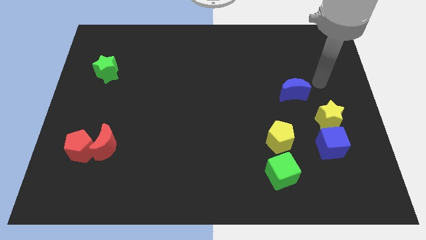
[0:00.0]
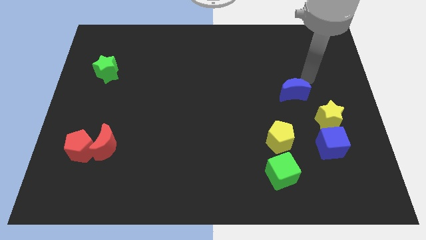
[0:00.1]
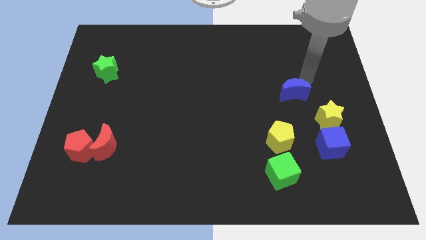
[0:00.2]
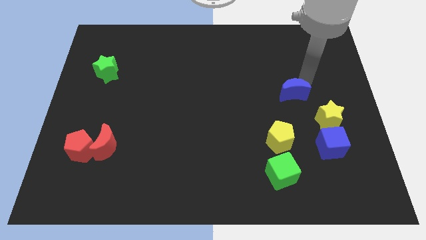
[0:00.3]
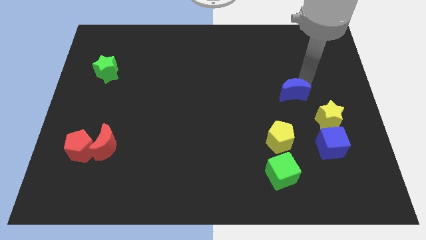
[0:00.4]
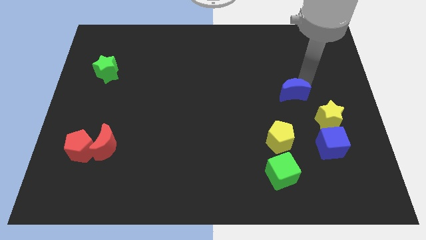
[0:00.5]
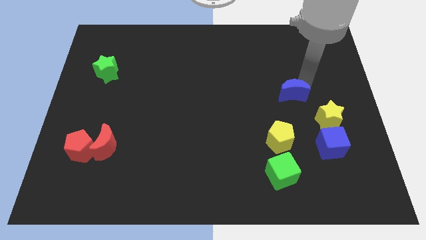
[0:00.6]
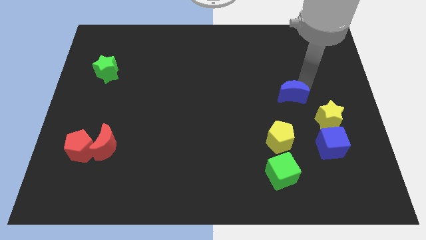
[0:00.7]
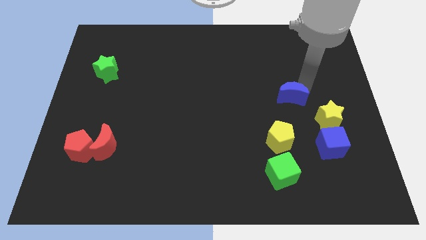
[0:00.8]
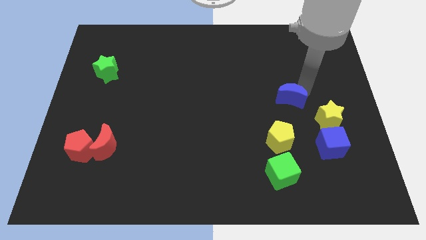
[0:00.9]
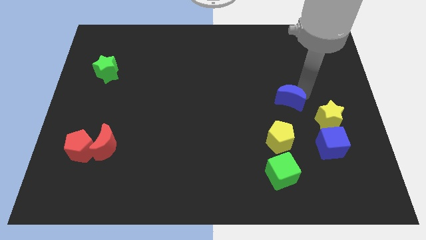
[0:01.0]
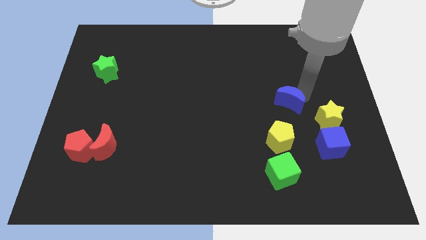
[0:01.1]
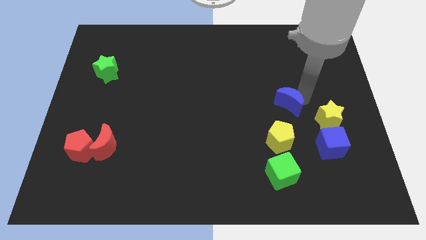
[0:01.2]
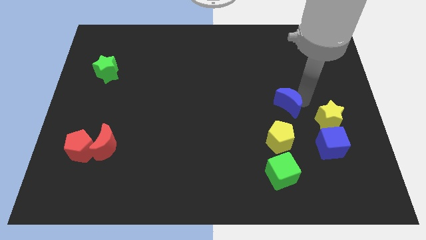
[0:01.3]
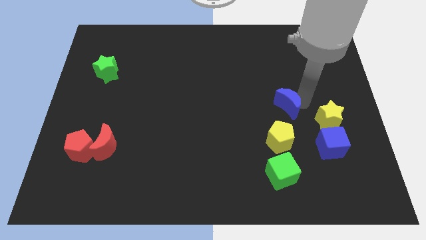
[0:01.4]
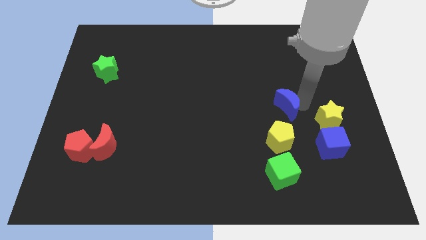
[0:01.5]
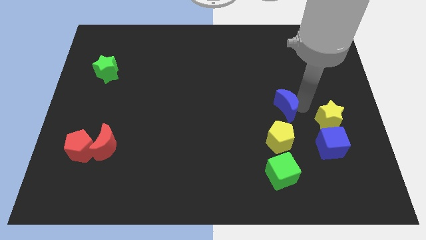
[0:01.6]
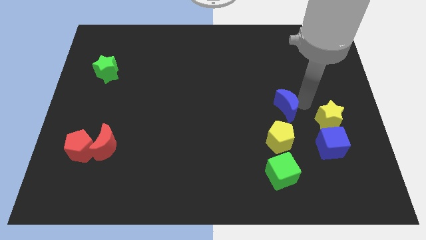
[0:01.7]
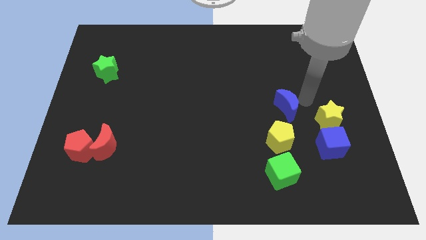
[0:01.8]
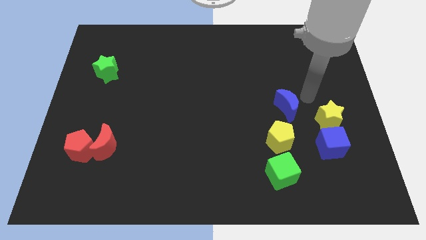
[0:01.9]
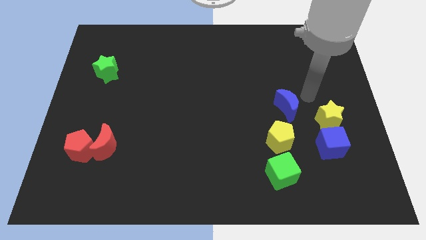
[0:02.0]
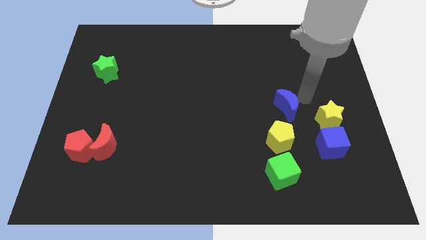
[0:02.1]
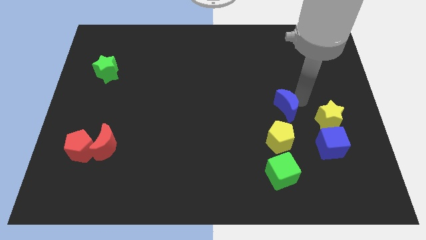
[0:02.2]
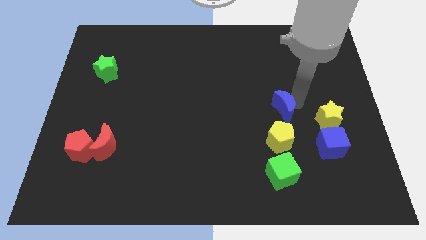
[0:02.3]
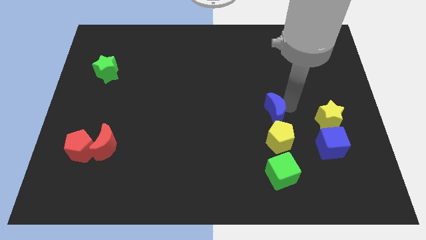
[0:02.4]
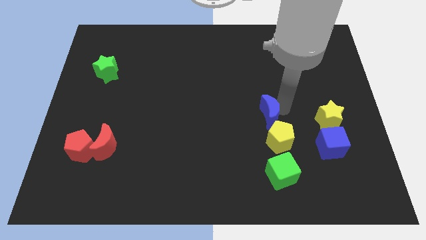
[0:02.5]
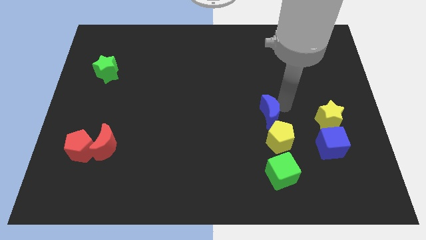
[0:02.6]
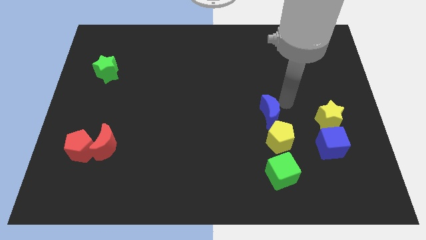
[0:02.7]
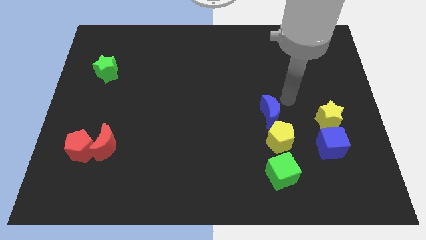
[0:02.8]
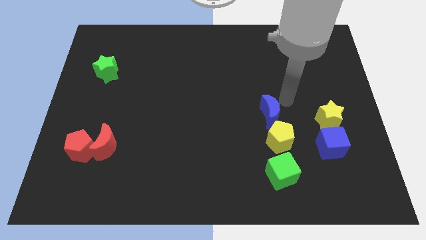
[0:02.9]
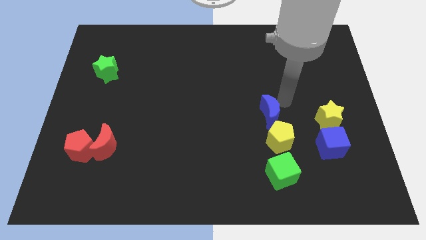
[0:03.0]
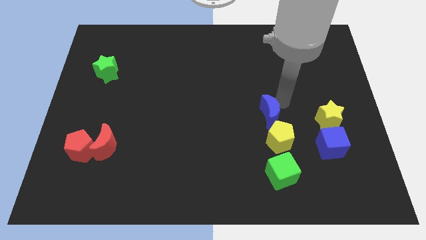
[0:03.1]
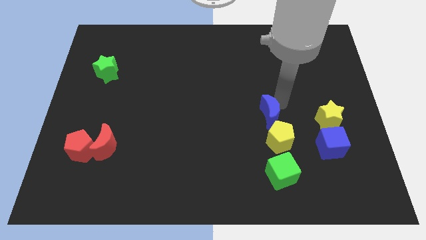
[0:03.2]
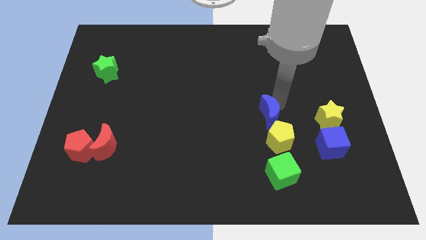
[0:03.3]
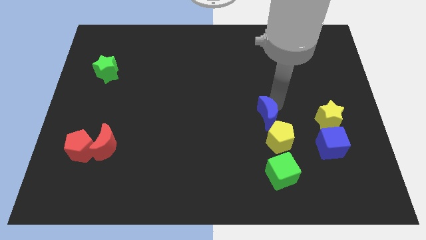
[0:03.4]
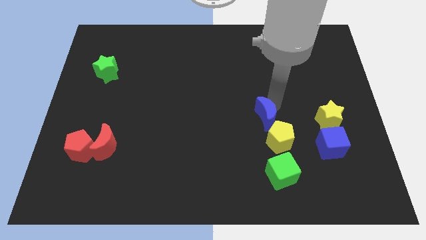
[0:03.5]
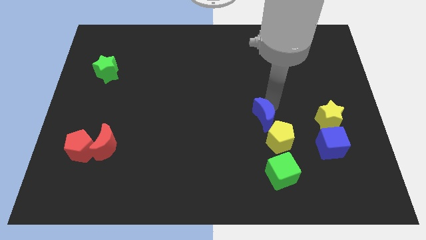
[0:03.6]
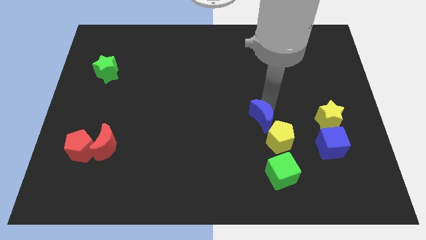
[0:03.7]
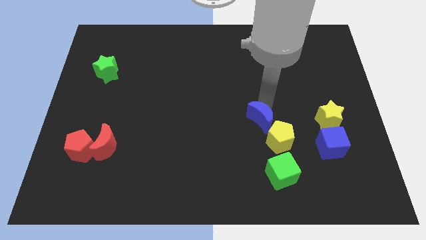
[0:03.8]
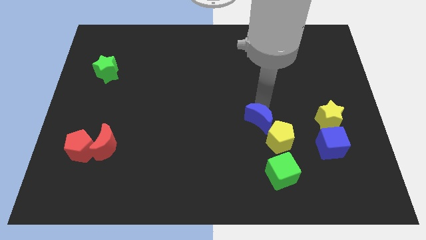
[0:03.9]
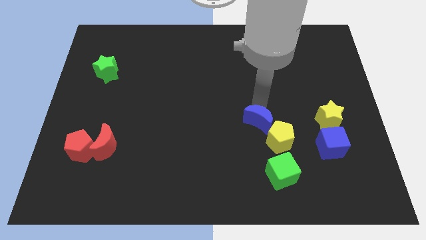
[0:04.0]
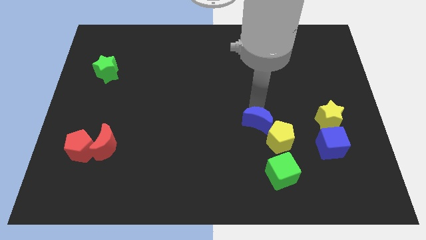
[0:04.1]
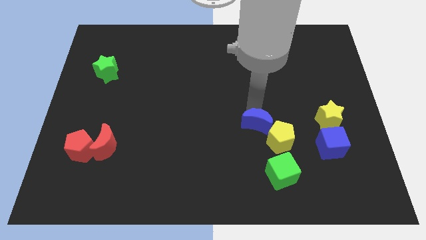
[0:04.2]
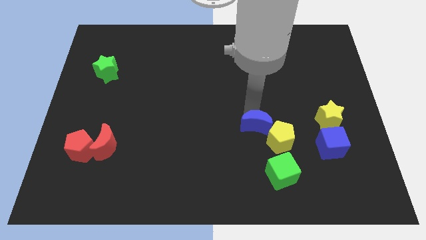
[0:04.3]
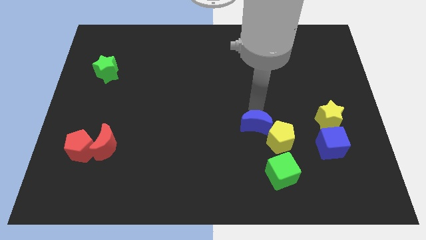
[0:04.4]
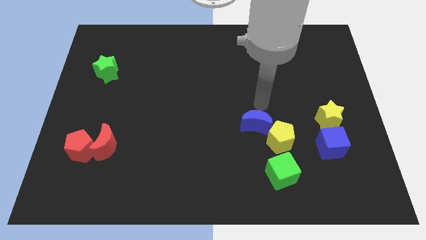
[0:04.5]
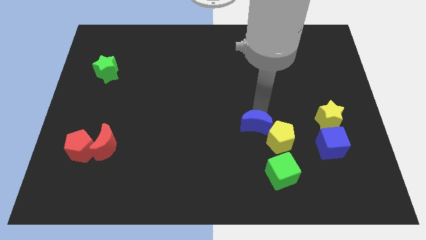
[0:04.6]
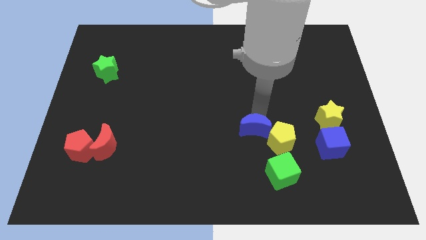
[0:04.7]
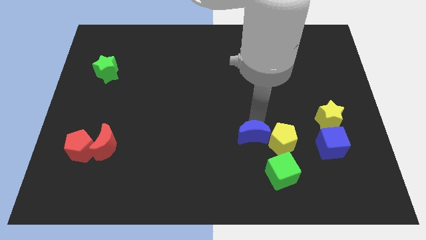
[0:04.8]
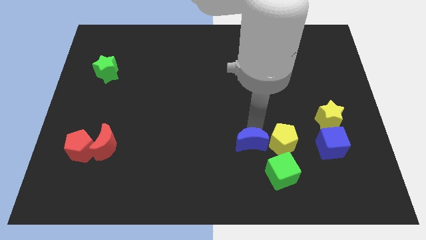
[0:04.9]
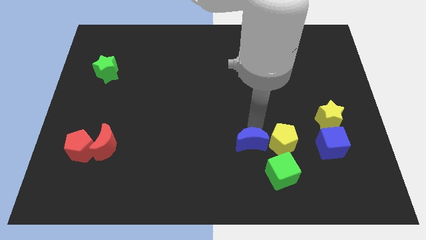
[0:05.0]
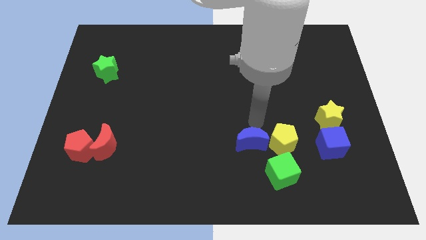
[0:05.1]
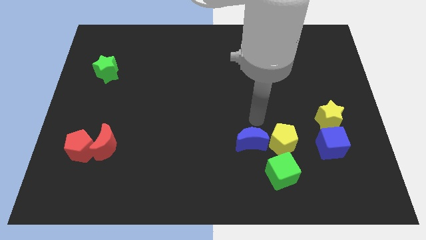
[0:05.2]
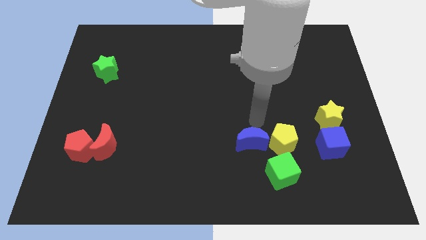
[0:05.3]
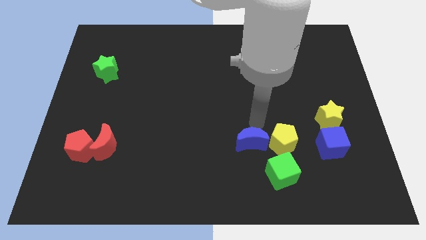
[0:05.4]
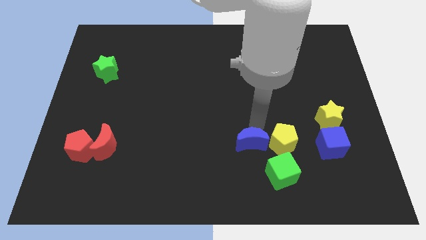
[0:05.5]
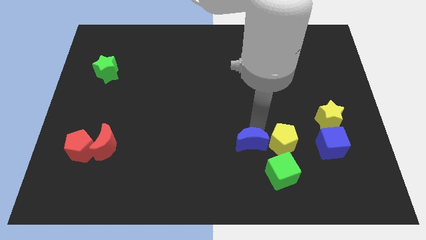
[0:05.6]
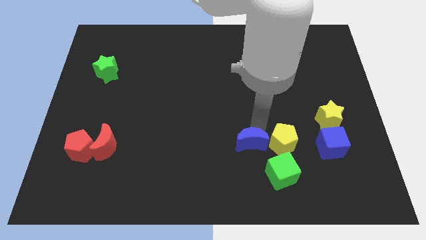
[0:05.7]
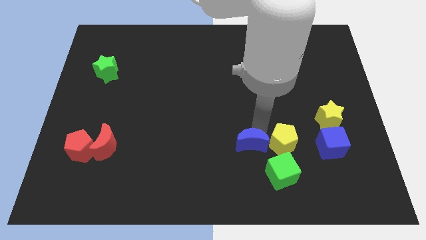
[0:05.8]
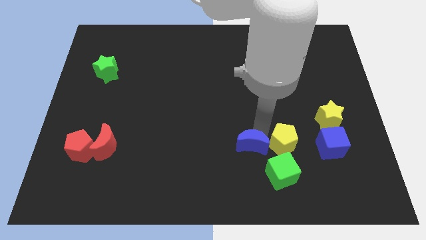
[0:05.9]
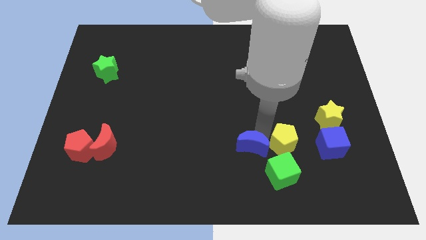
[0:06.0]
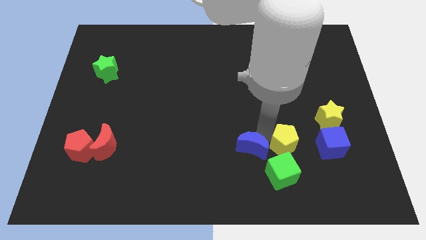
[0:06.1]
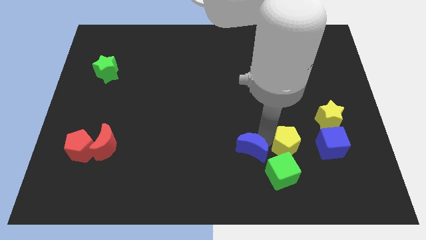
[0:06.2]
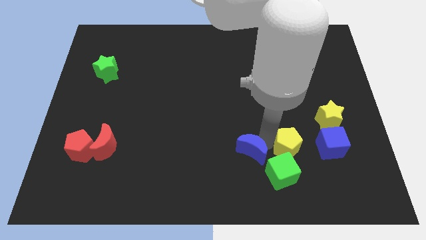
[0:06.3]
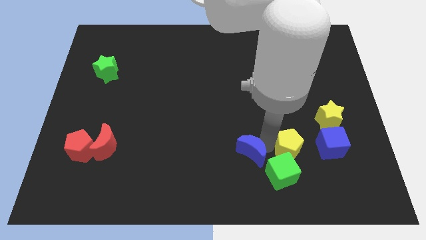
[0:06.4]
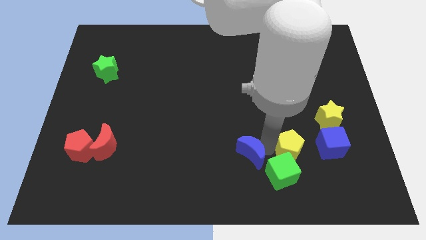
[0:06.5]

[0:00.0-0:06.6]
push the blue moon just left of the green cube

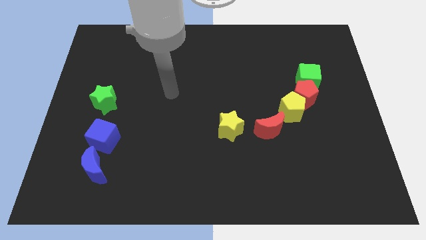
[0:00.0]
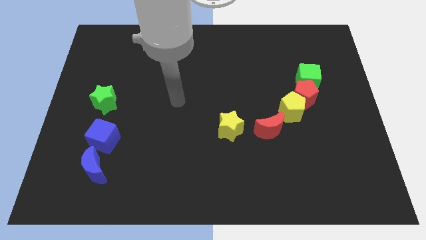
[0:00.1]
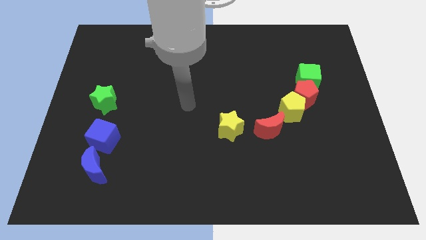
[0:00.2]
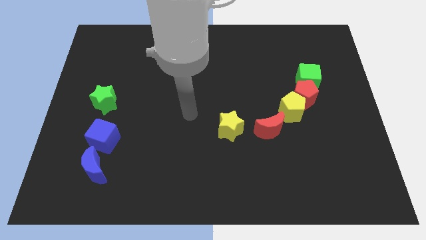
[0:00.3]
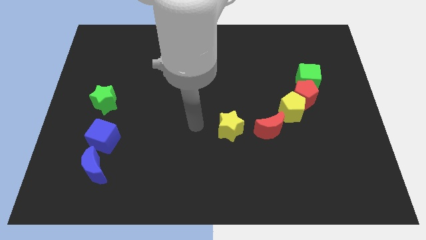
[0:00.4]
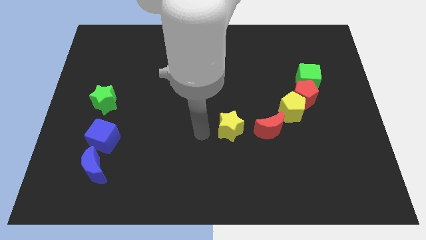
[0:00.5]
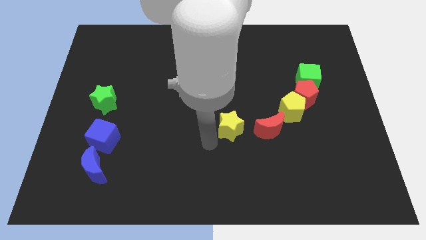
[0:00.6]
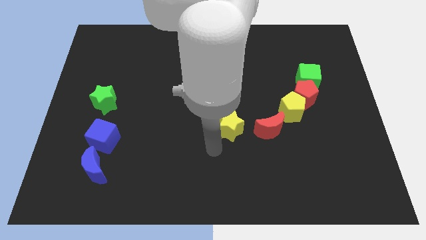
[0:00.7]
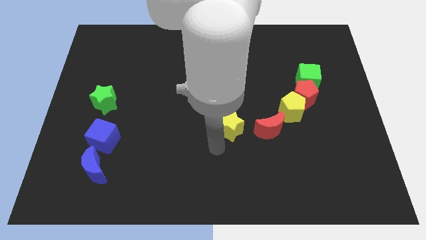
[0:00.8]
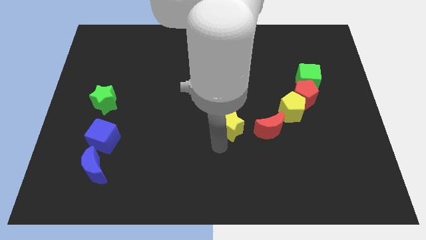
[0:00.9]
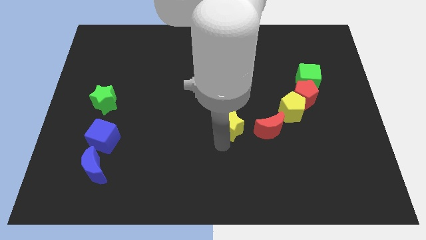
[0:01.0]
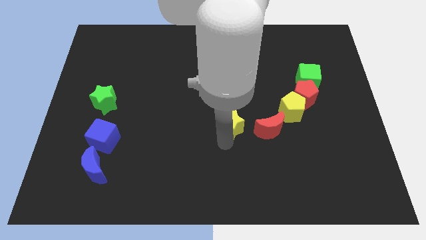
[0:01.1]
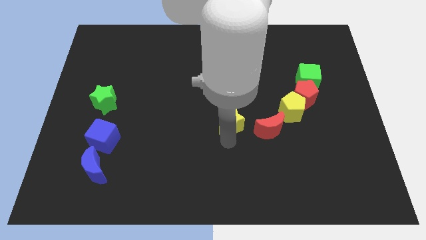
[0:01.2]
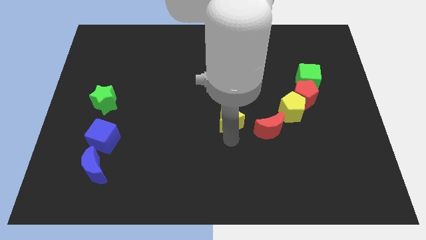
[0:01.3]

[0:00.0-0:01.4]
move the yellow star to the left of the yellow pentagon
